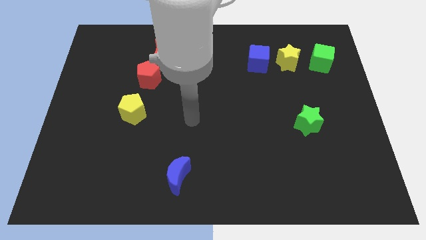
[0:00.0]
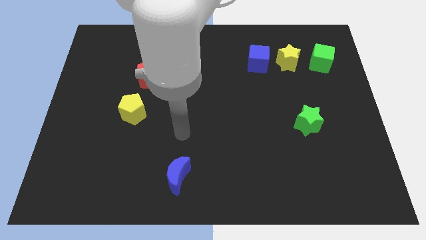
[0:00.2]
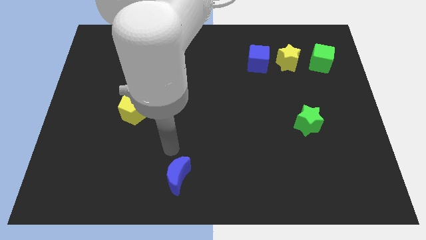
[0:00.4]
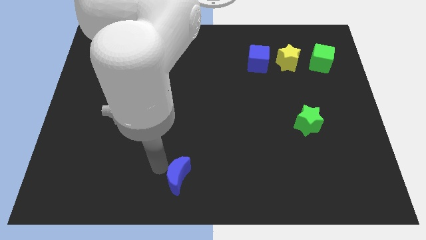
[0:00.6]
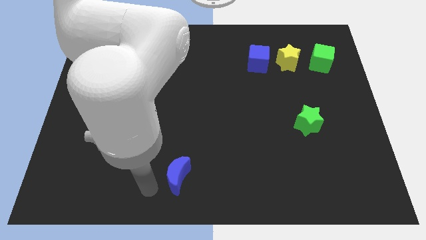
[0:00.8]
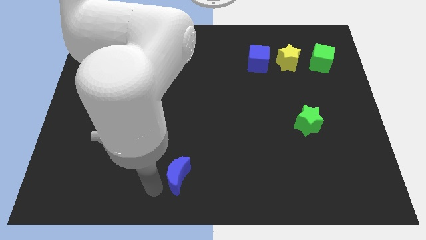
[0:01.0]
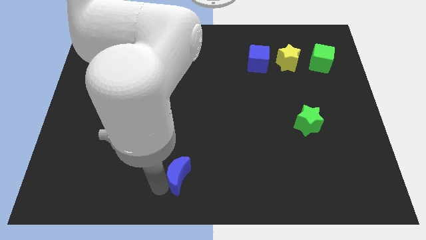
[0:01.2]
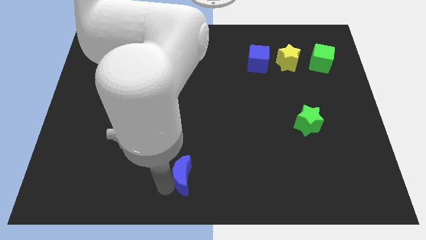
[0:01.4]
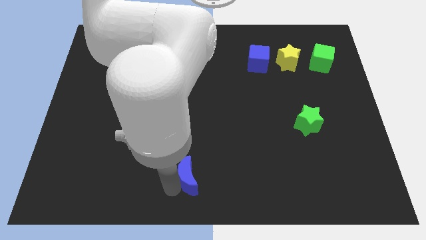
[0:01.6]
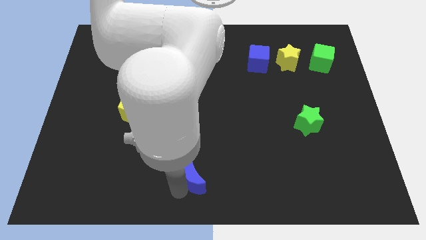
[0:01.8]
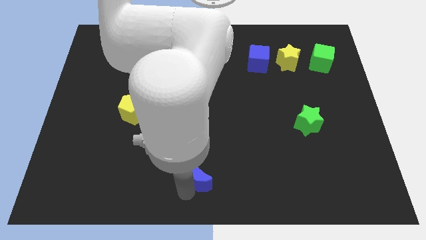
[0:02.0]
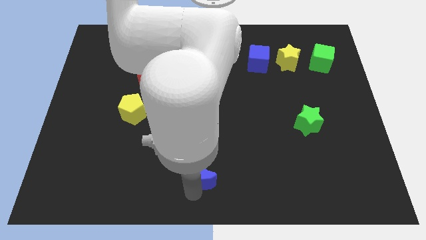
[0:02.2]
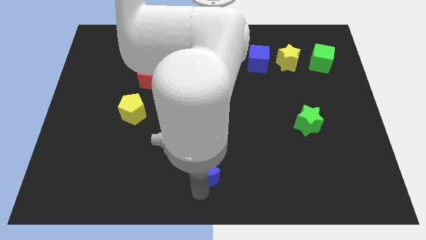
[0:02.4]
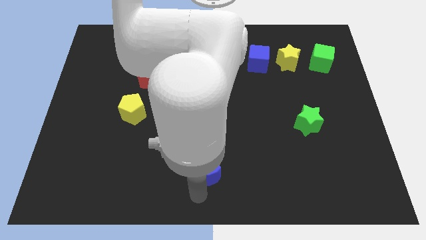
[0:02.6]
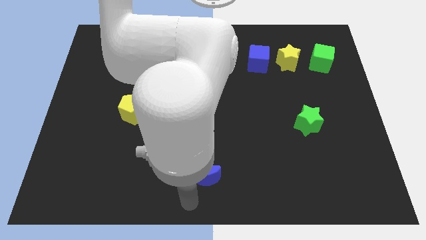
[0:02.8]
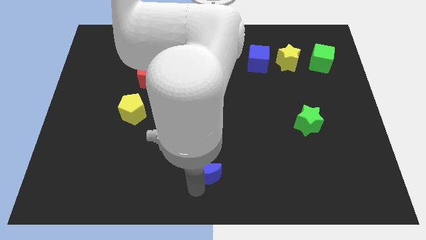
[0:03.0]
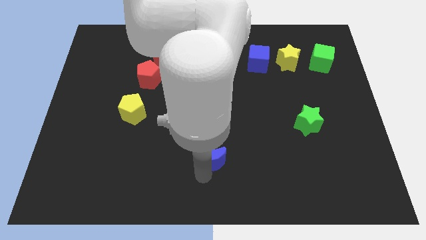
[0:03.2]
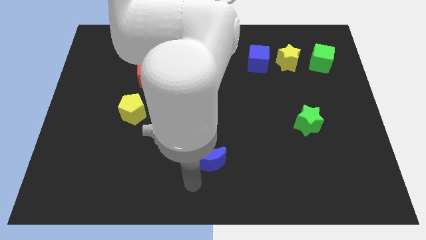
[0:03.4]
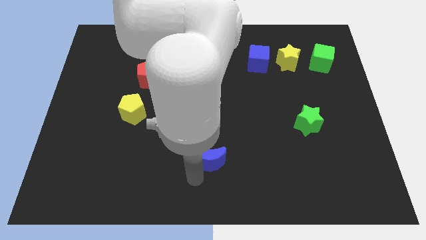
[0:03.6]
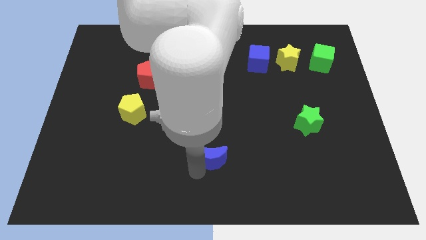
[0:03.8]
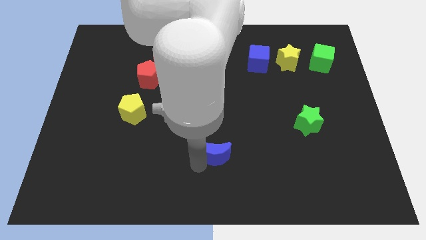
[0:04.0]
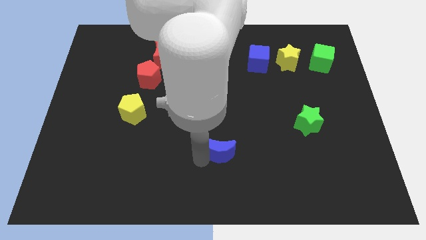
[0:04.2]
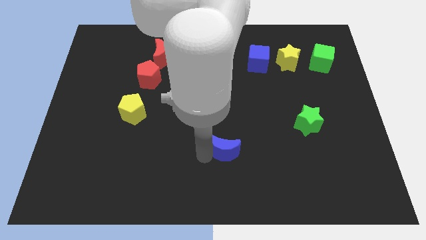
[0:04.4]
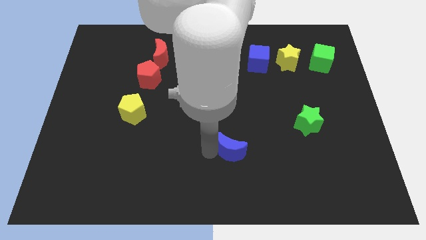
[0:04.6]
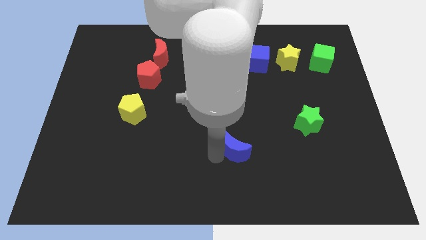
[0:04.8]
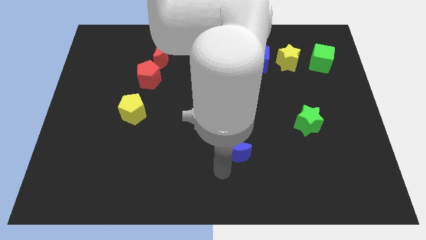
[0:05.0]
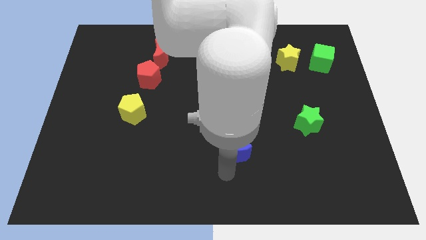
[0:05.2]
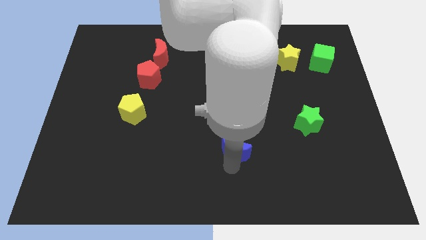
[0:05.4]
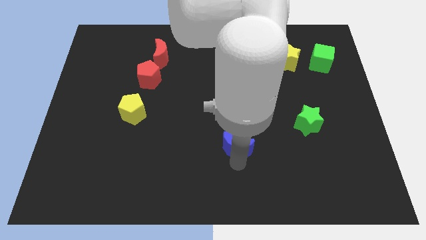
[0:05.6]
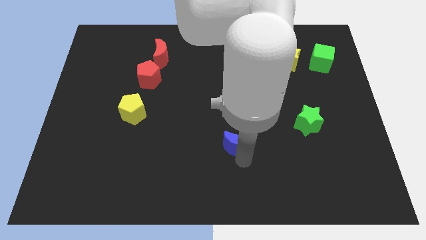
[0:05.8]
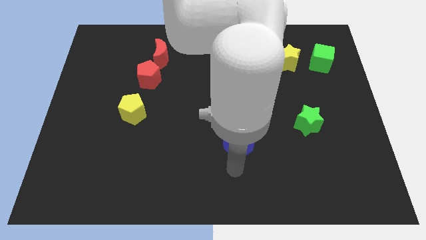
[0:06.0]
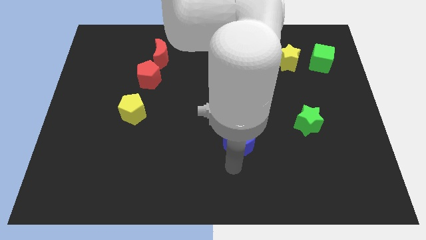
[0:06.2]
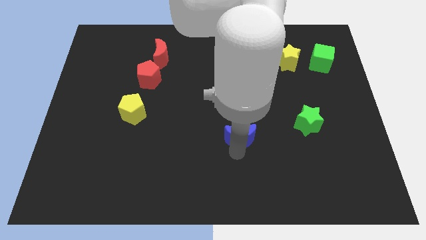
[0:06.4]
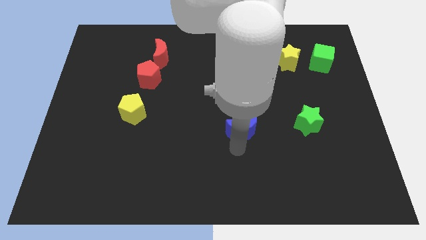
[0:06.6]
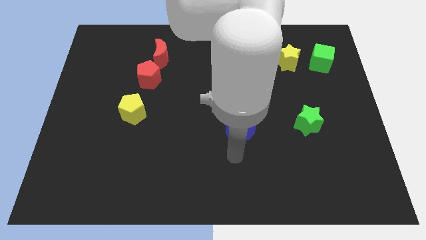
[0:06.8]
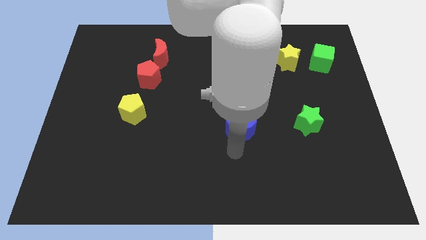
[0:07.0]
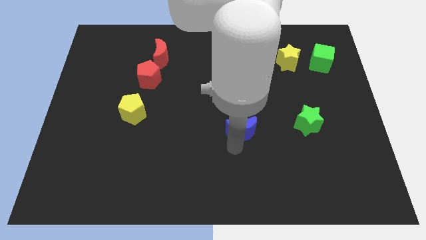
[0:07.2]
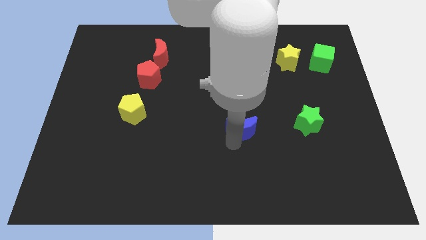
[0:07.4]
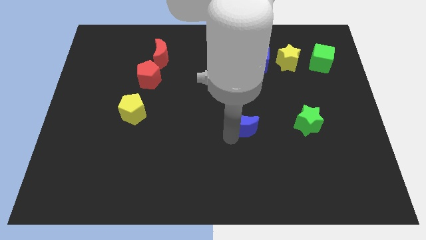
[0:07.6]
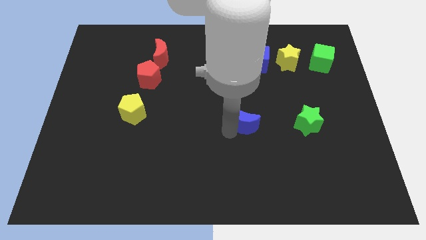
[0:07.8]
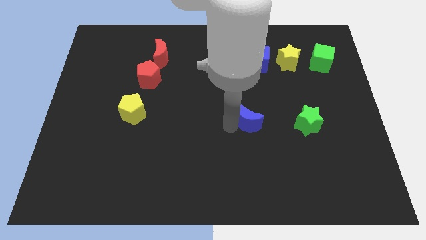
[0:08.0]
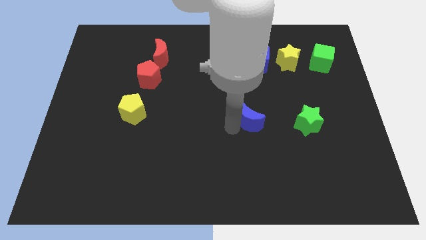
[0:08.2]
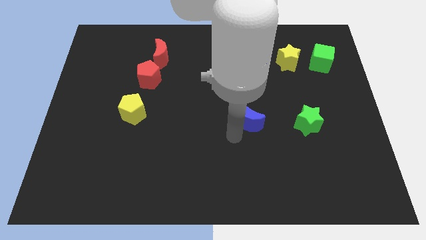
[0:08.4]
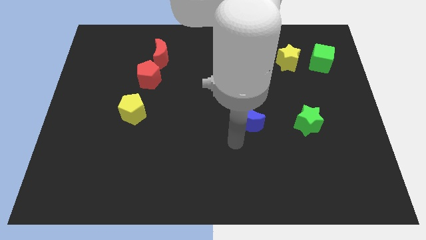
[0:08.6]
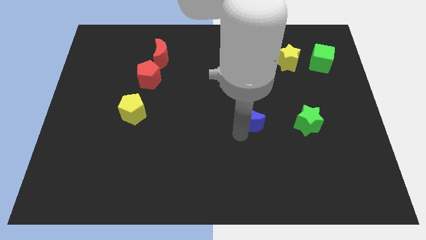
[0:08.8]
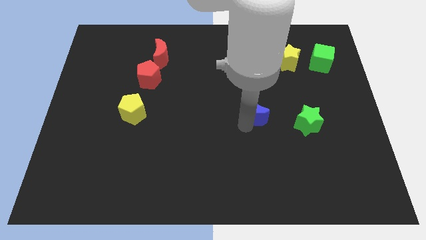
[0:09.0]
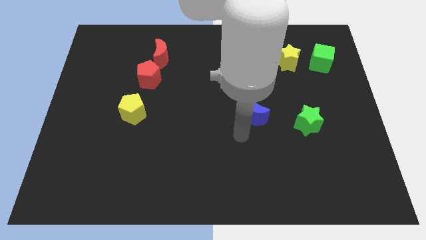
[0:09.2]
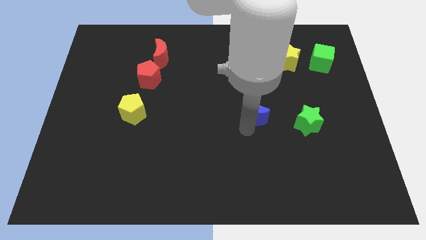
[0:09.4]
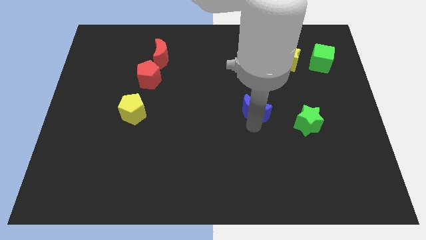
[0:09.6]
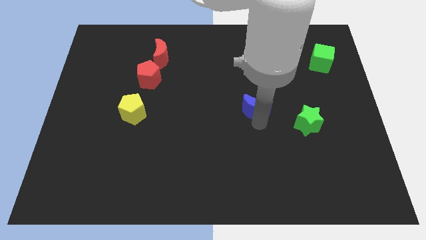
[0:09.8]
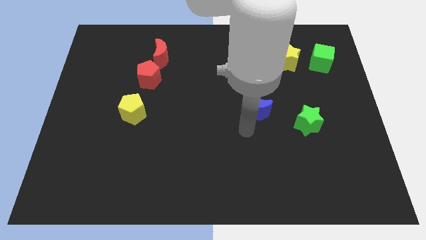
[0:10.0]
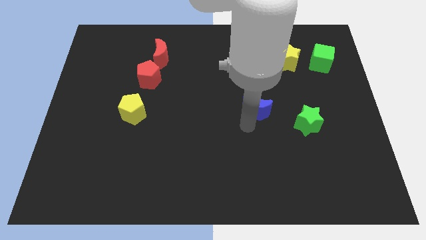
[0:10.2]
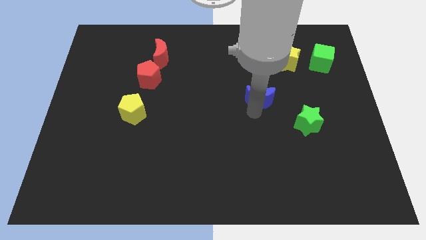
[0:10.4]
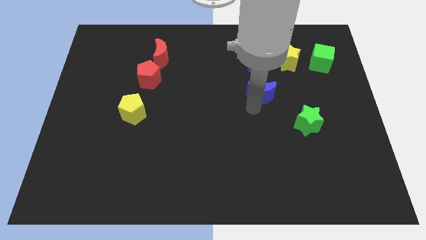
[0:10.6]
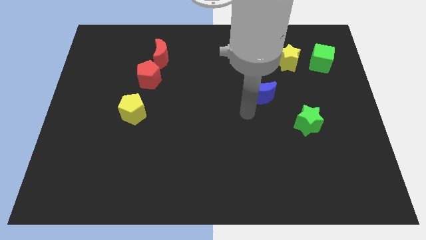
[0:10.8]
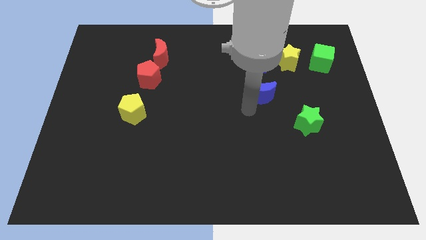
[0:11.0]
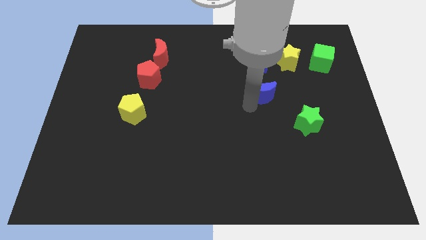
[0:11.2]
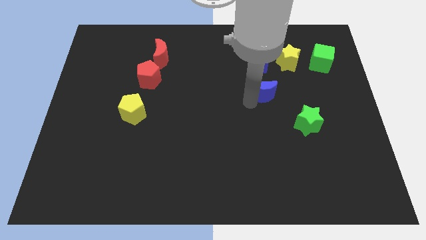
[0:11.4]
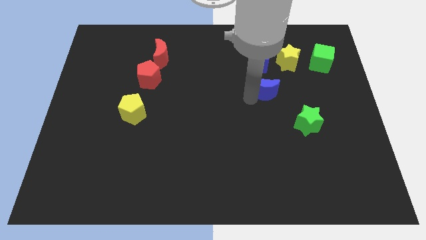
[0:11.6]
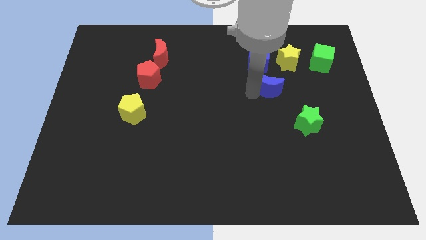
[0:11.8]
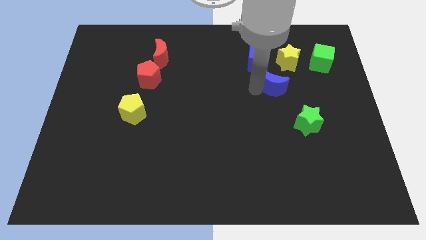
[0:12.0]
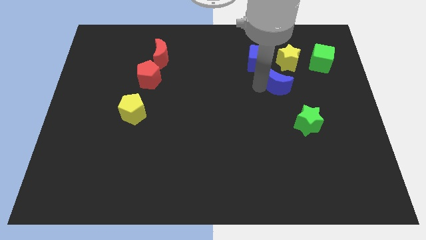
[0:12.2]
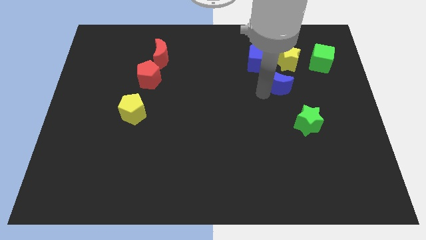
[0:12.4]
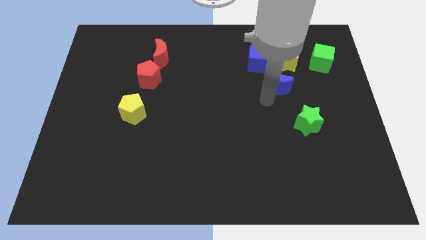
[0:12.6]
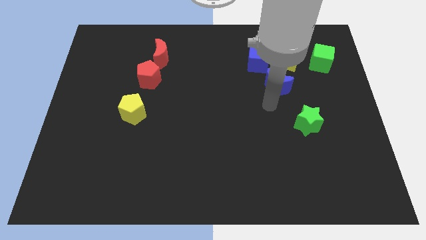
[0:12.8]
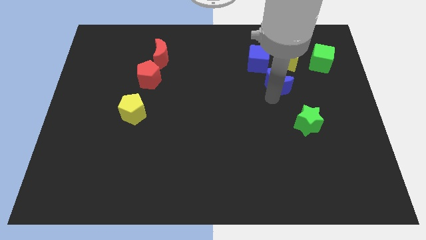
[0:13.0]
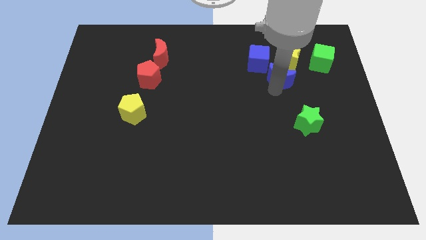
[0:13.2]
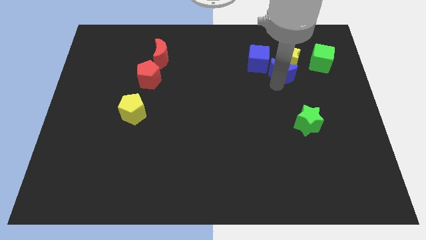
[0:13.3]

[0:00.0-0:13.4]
slide the blue moon close to the yellow star

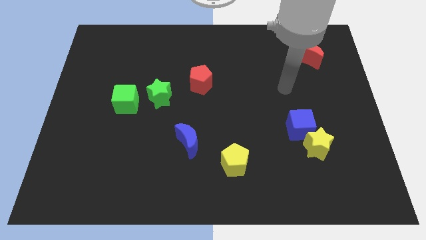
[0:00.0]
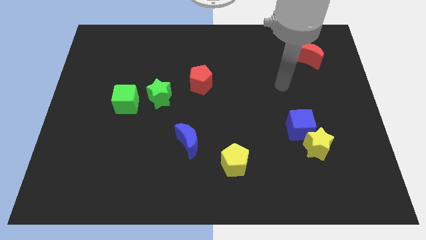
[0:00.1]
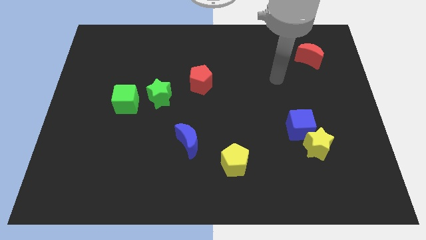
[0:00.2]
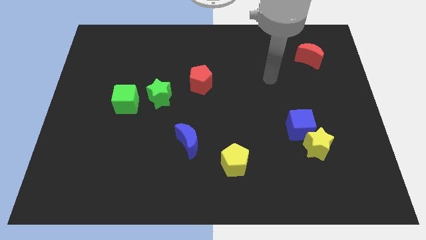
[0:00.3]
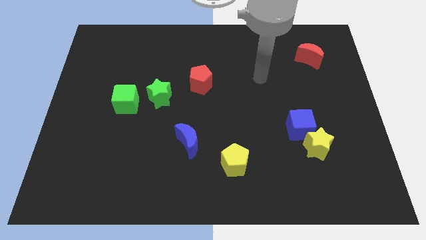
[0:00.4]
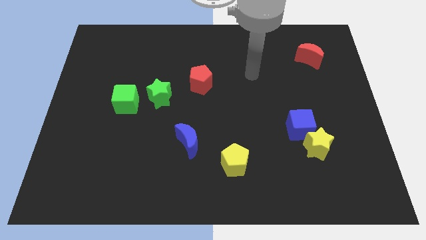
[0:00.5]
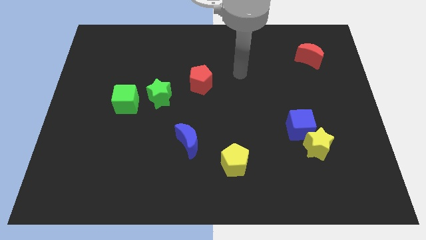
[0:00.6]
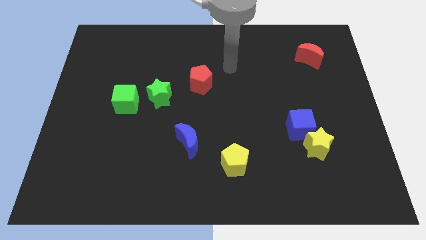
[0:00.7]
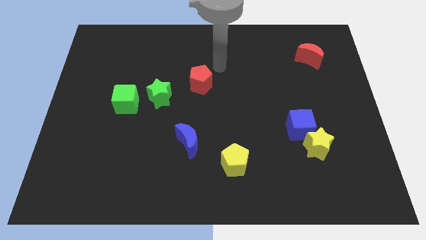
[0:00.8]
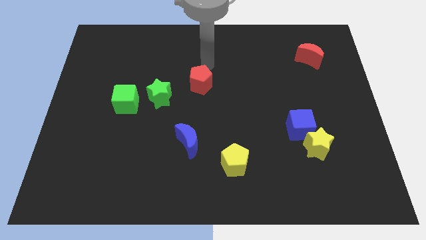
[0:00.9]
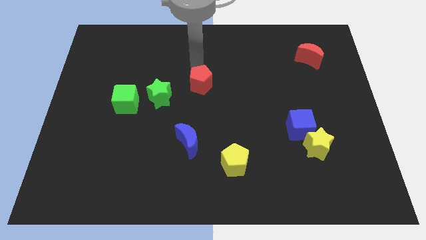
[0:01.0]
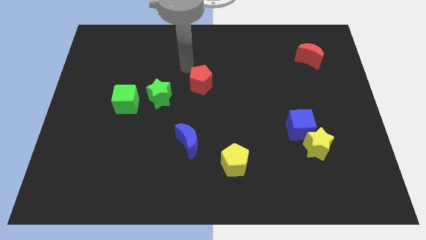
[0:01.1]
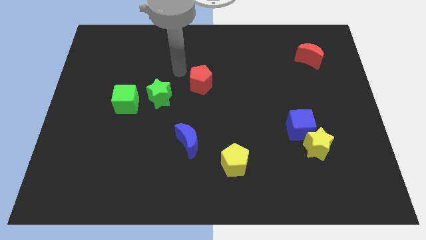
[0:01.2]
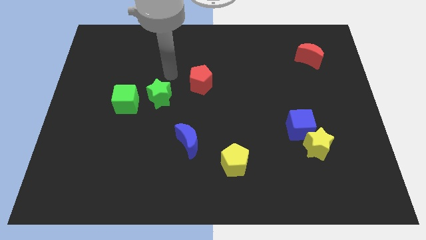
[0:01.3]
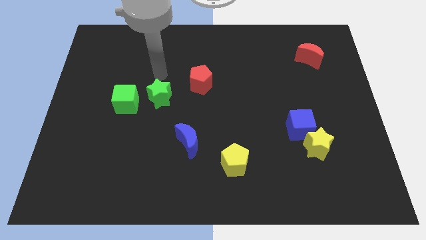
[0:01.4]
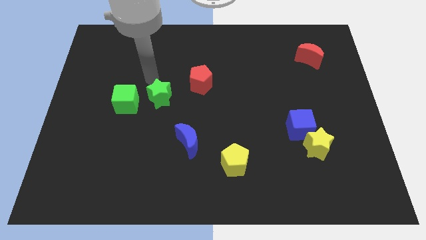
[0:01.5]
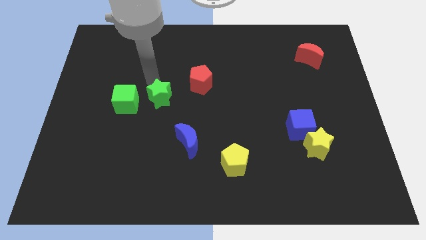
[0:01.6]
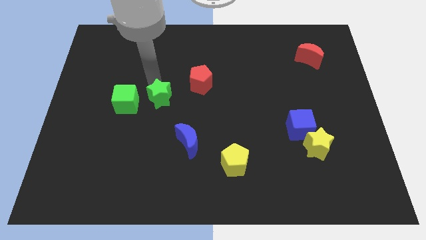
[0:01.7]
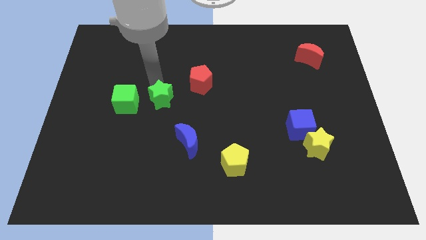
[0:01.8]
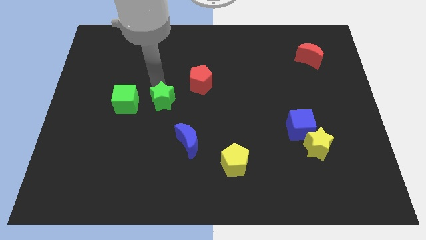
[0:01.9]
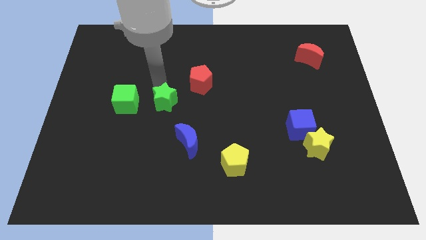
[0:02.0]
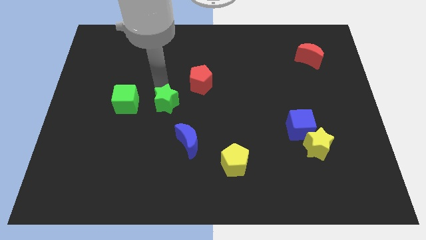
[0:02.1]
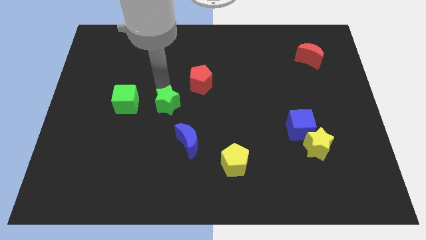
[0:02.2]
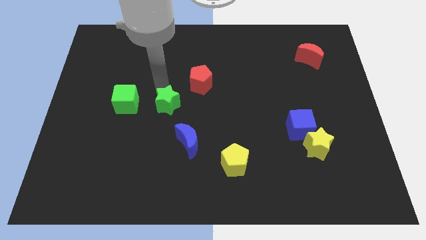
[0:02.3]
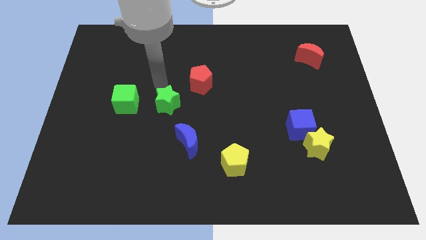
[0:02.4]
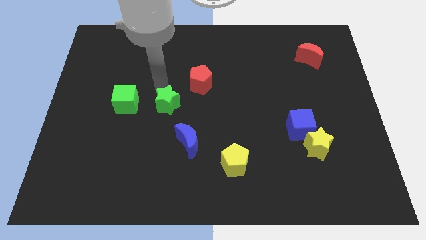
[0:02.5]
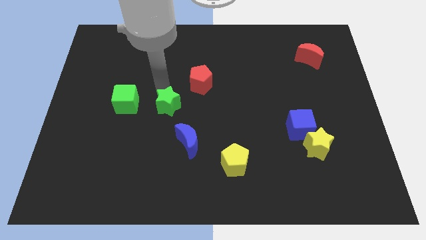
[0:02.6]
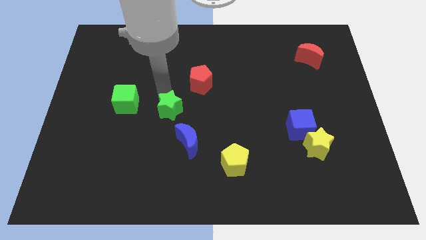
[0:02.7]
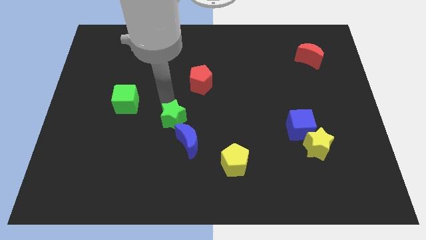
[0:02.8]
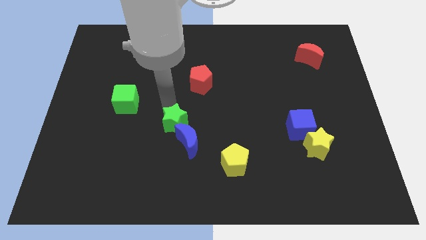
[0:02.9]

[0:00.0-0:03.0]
move the green star close to the blue moon
